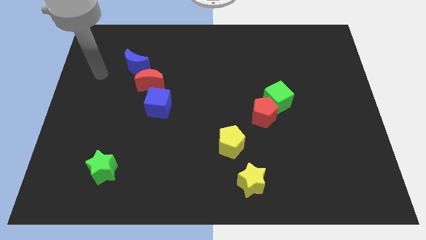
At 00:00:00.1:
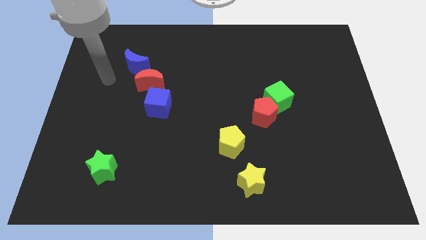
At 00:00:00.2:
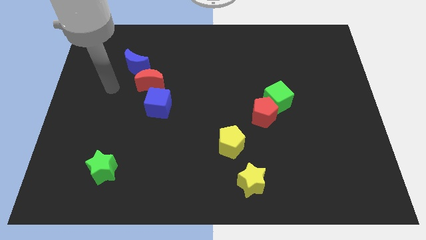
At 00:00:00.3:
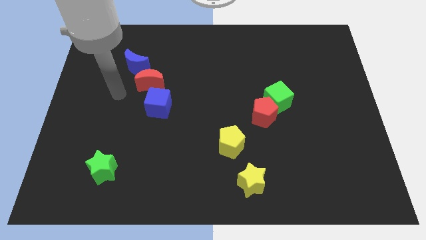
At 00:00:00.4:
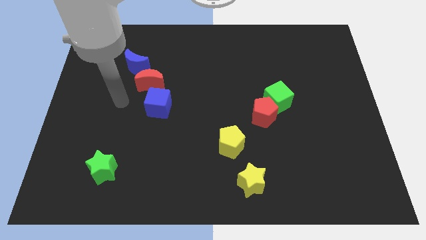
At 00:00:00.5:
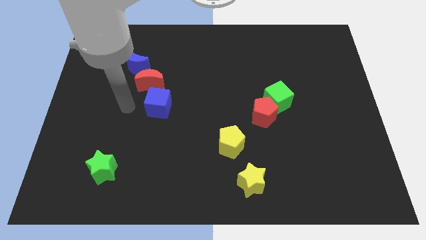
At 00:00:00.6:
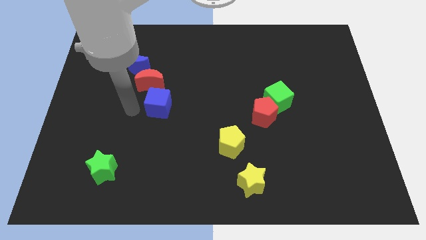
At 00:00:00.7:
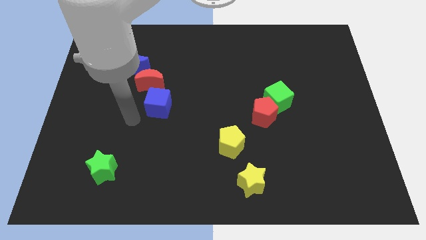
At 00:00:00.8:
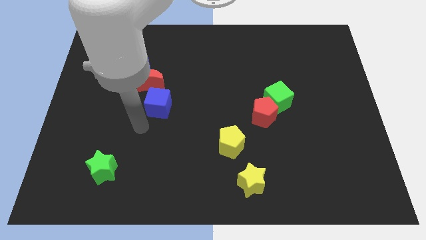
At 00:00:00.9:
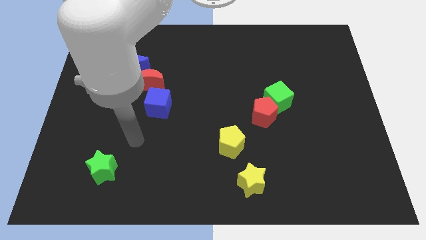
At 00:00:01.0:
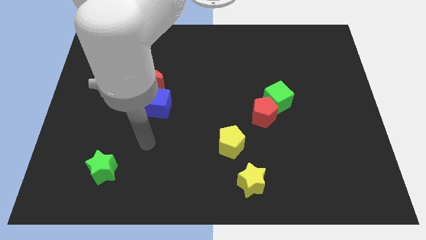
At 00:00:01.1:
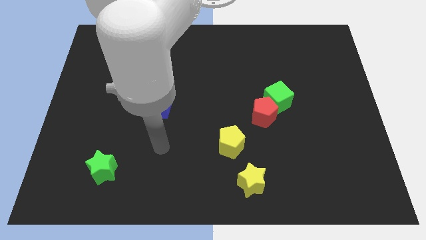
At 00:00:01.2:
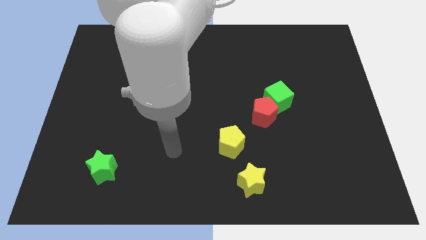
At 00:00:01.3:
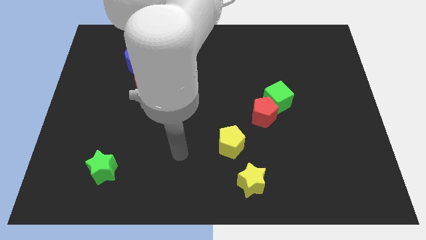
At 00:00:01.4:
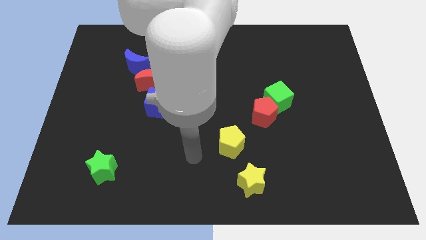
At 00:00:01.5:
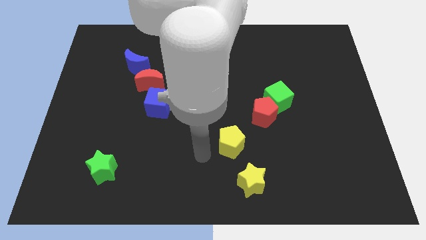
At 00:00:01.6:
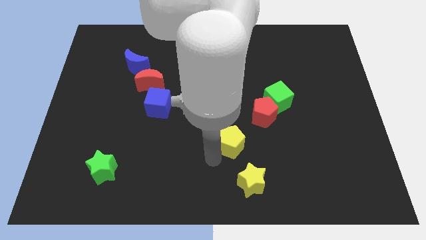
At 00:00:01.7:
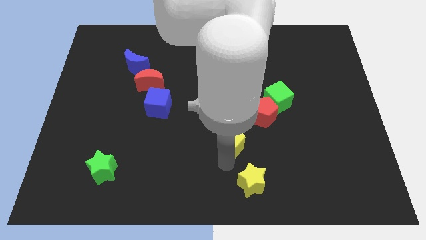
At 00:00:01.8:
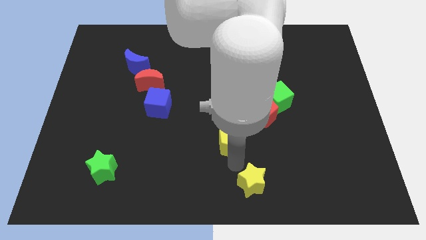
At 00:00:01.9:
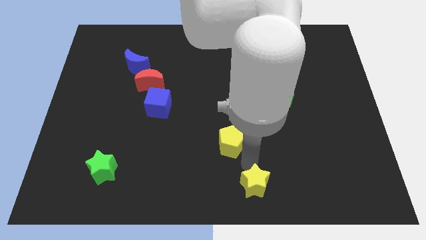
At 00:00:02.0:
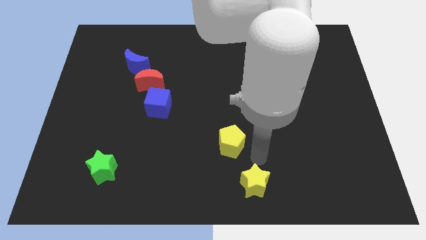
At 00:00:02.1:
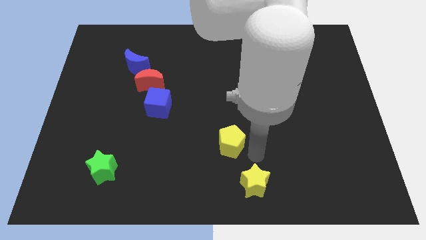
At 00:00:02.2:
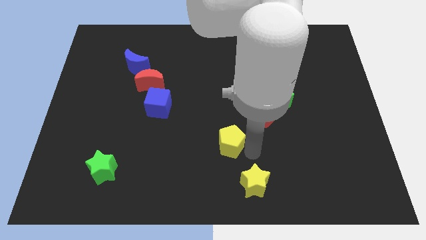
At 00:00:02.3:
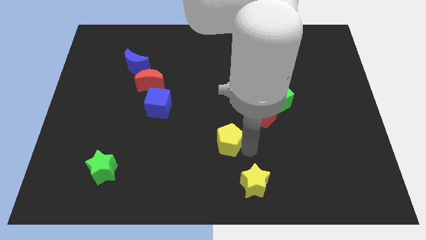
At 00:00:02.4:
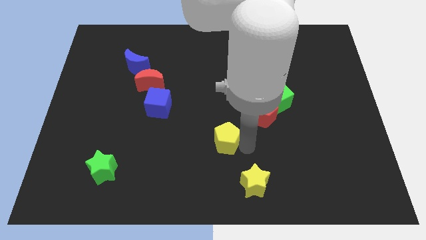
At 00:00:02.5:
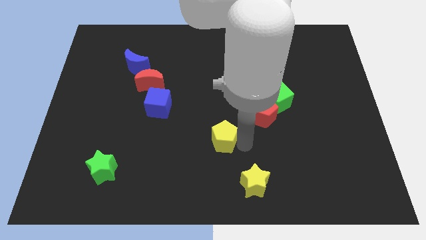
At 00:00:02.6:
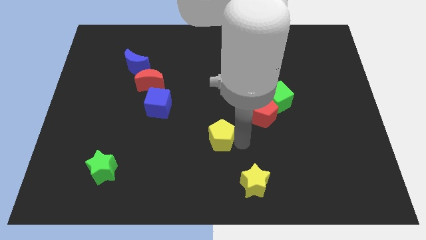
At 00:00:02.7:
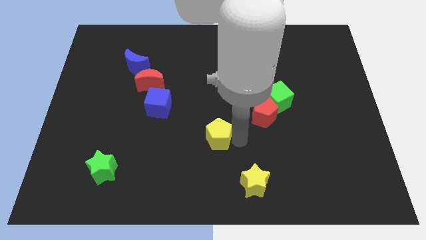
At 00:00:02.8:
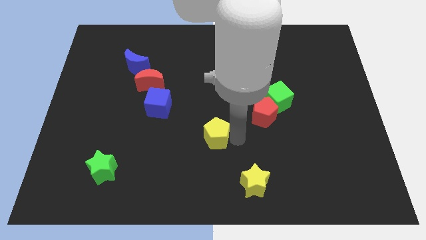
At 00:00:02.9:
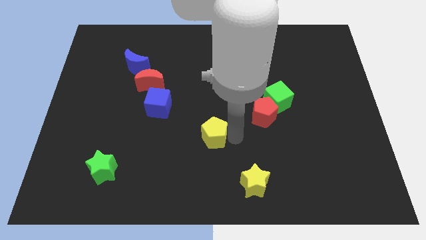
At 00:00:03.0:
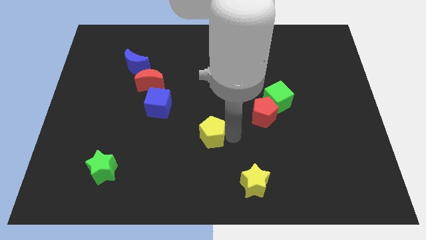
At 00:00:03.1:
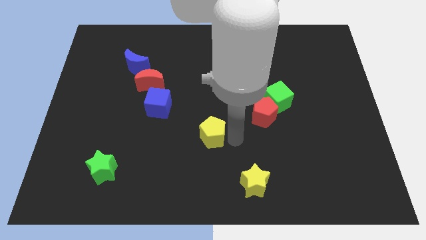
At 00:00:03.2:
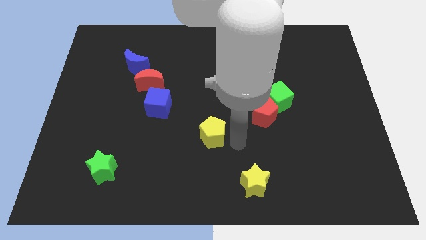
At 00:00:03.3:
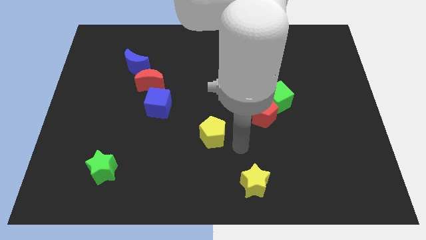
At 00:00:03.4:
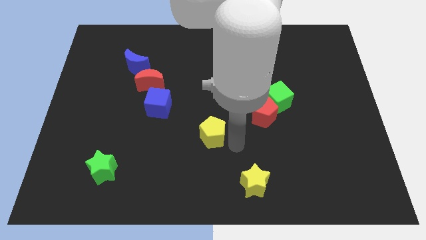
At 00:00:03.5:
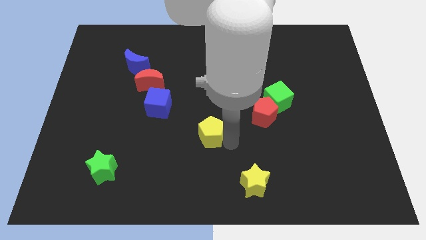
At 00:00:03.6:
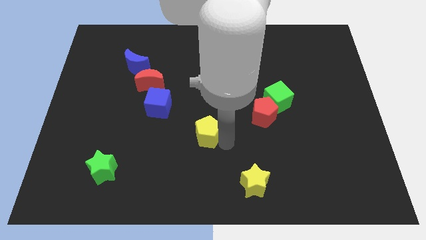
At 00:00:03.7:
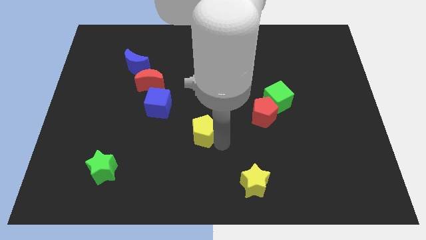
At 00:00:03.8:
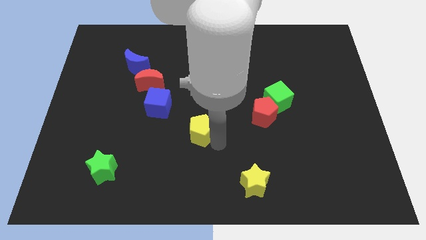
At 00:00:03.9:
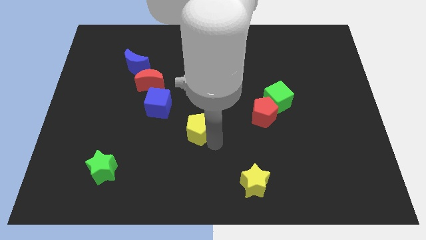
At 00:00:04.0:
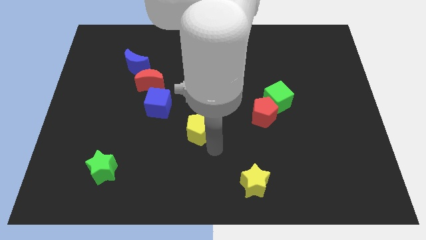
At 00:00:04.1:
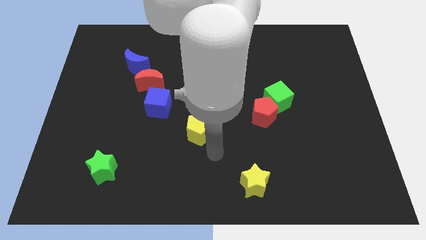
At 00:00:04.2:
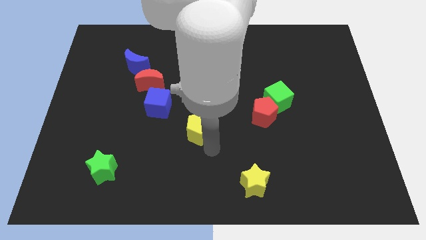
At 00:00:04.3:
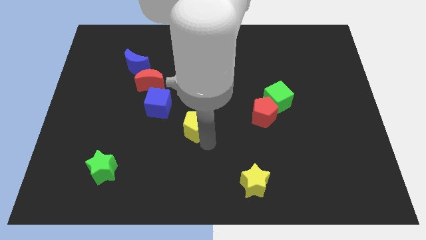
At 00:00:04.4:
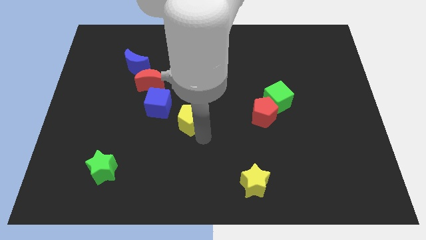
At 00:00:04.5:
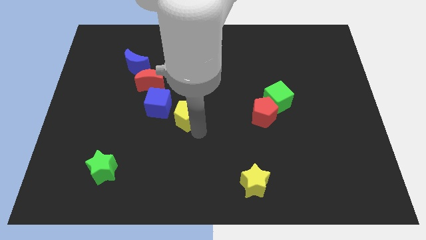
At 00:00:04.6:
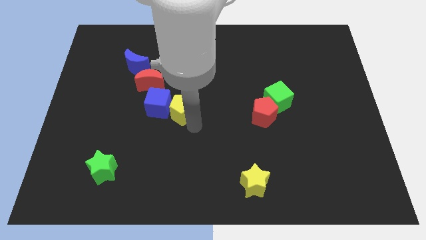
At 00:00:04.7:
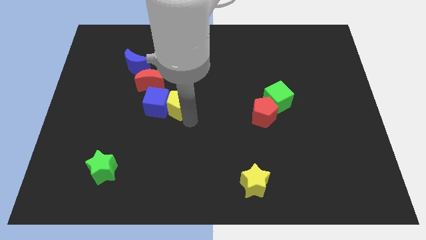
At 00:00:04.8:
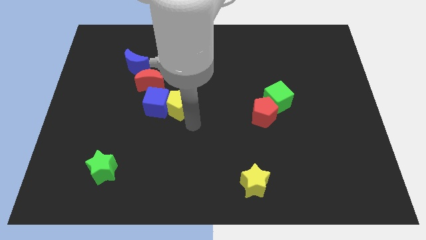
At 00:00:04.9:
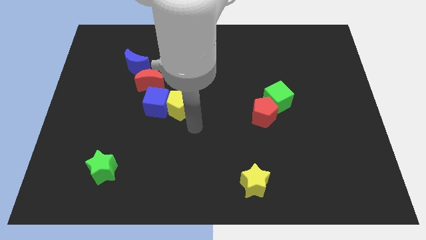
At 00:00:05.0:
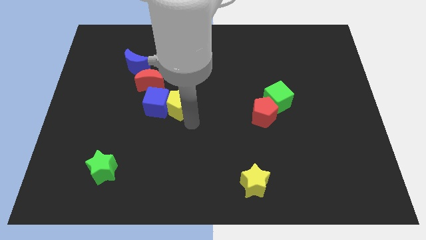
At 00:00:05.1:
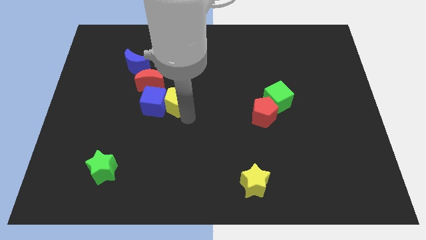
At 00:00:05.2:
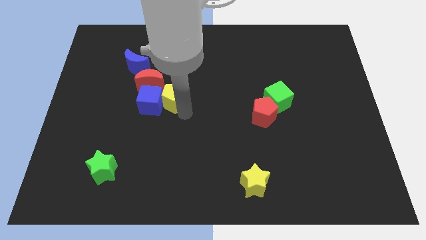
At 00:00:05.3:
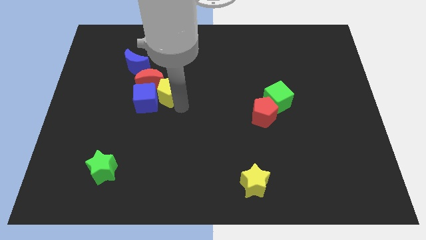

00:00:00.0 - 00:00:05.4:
put the yellow pentagon to the red moon
